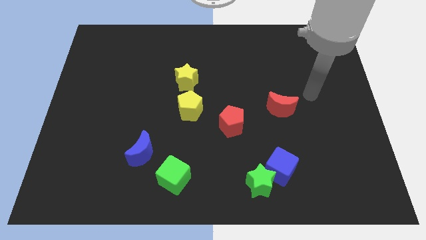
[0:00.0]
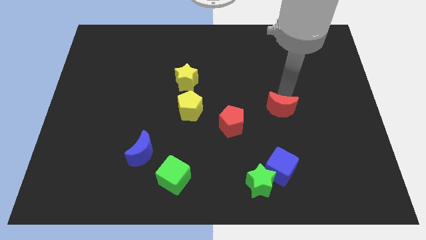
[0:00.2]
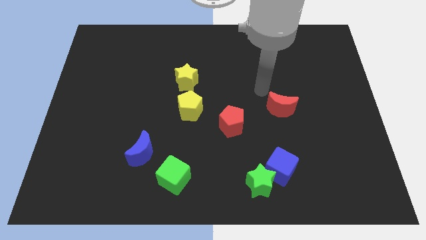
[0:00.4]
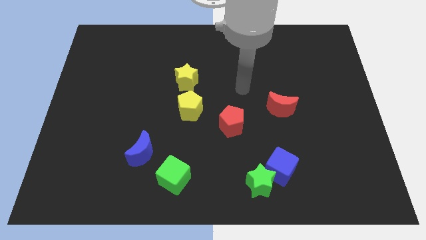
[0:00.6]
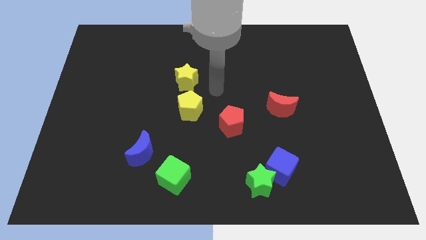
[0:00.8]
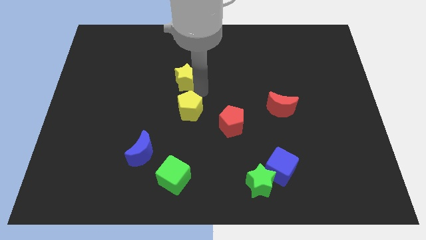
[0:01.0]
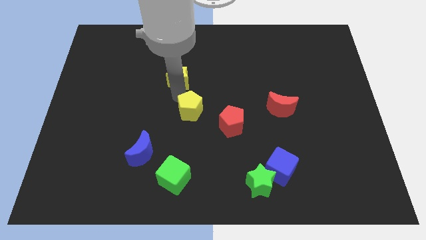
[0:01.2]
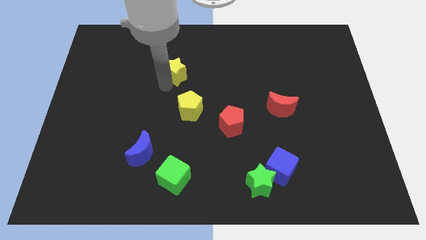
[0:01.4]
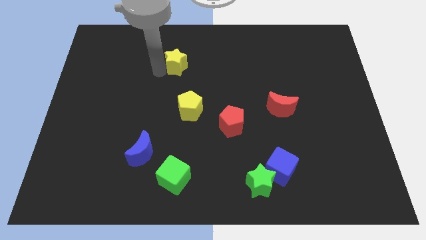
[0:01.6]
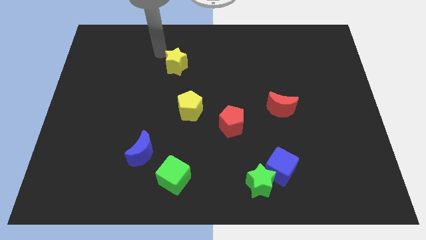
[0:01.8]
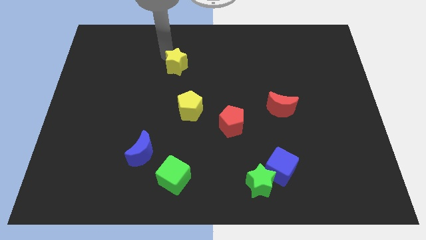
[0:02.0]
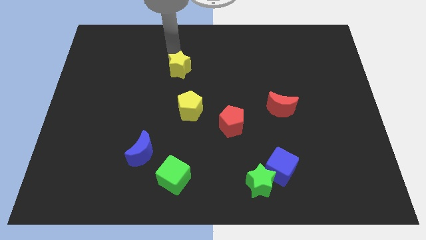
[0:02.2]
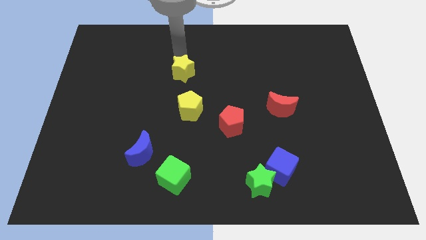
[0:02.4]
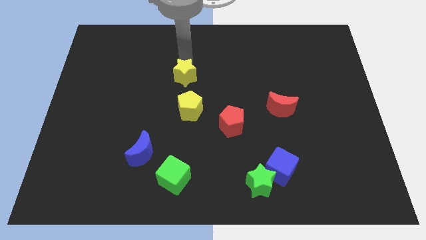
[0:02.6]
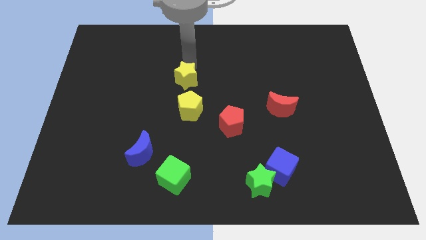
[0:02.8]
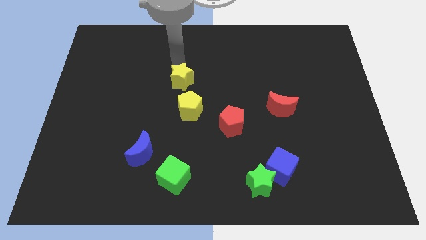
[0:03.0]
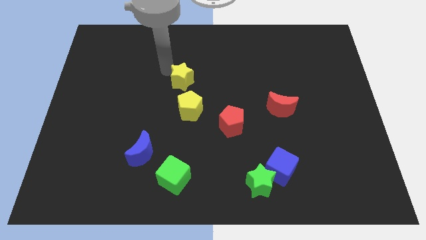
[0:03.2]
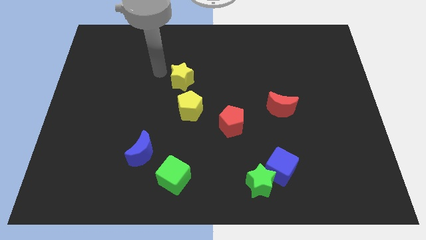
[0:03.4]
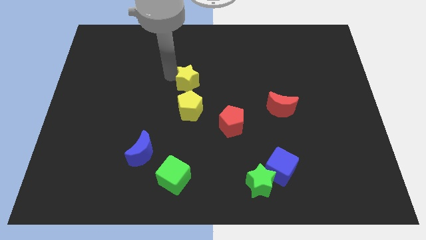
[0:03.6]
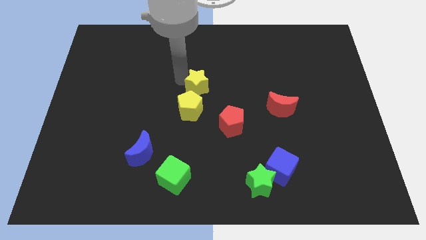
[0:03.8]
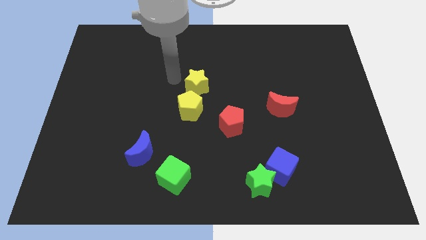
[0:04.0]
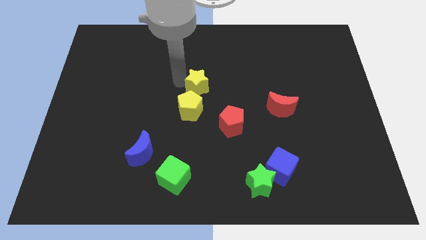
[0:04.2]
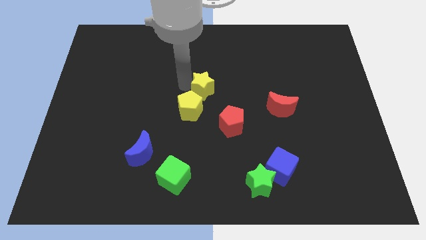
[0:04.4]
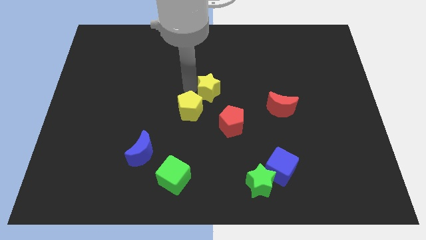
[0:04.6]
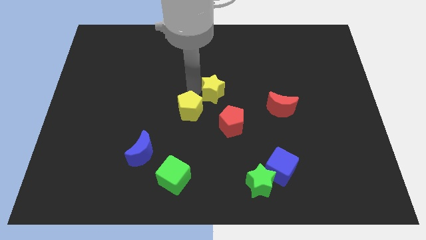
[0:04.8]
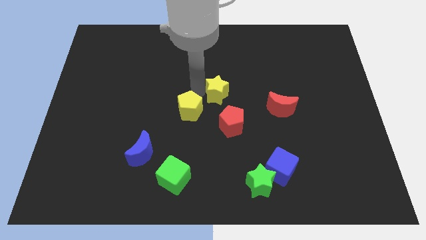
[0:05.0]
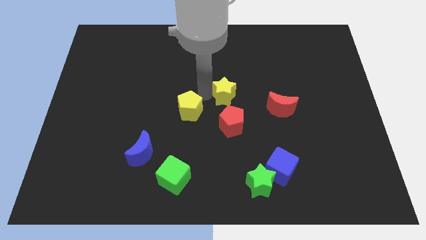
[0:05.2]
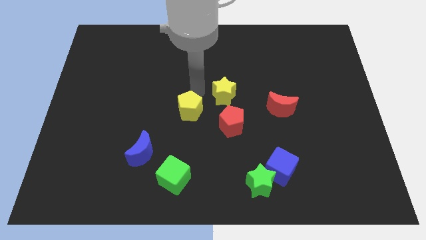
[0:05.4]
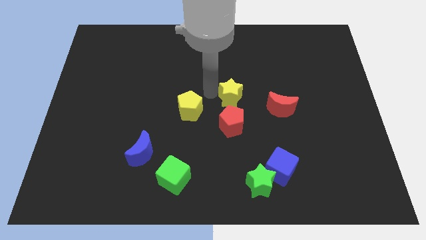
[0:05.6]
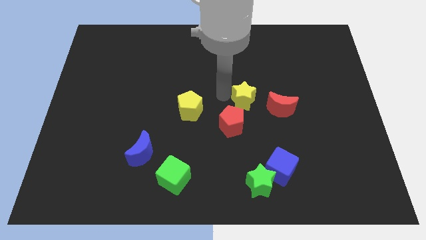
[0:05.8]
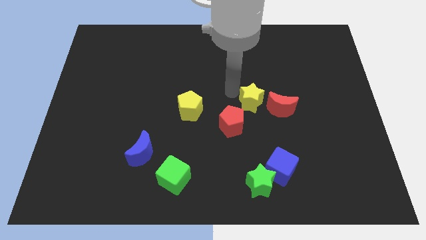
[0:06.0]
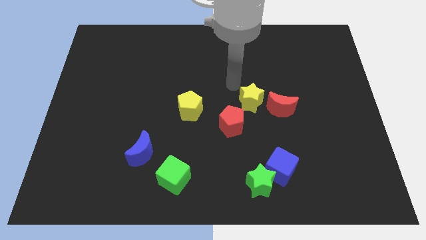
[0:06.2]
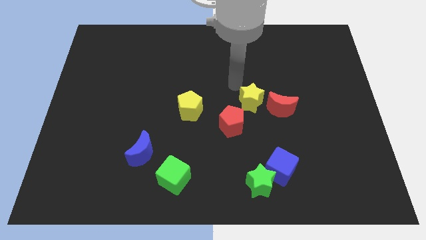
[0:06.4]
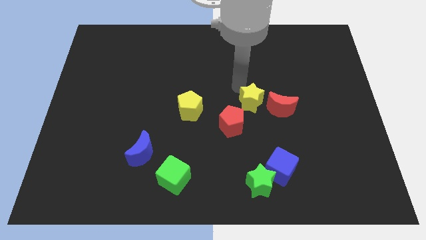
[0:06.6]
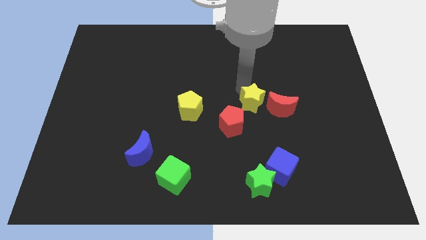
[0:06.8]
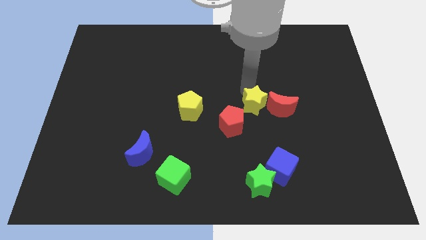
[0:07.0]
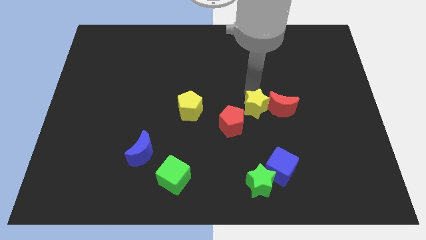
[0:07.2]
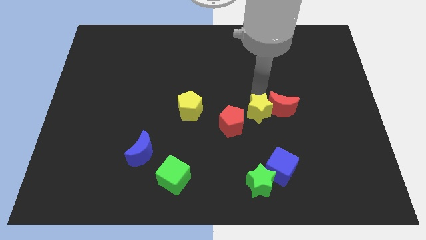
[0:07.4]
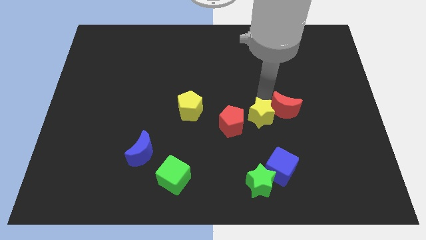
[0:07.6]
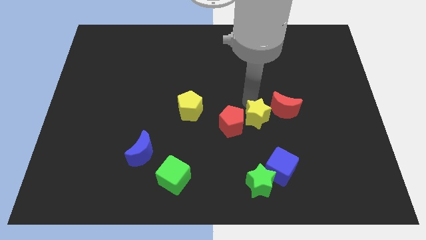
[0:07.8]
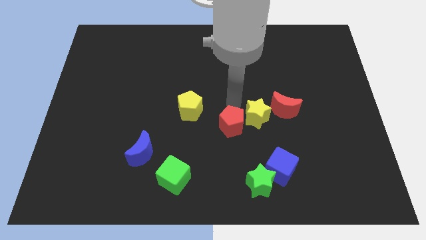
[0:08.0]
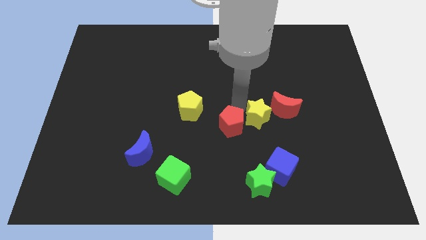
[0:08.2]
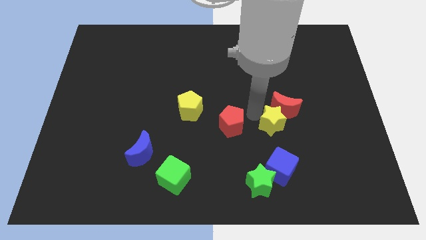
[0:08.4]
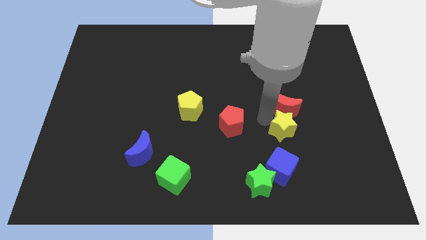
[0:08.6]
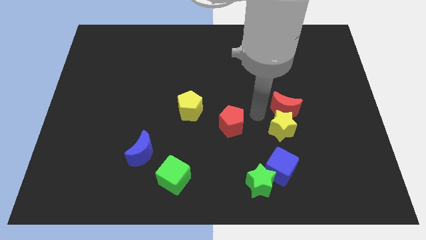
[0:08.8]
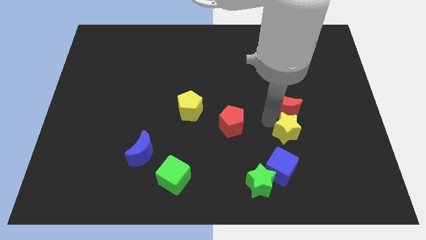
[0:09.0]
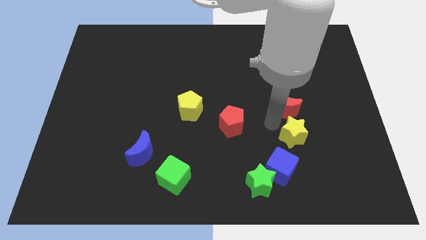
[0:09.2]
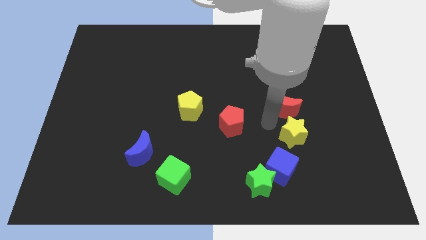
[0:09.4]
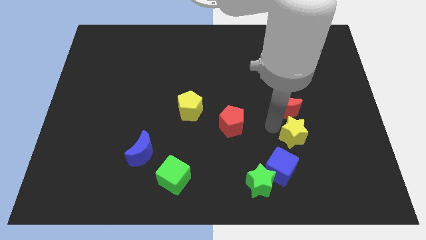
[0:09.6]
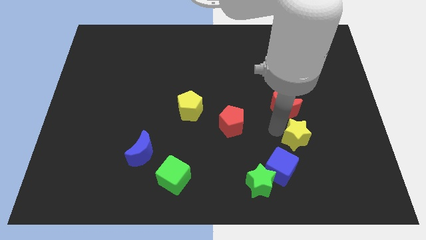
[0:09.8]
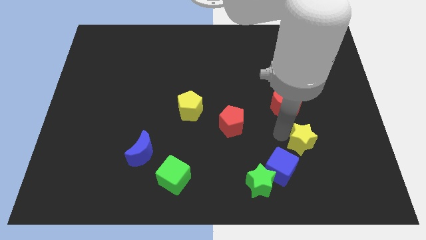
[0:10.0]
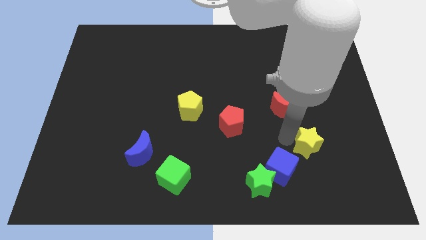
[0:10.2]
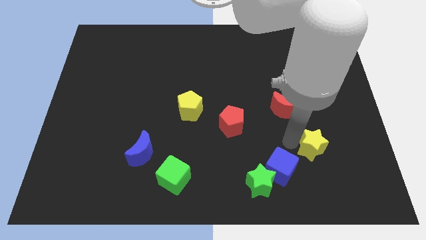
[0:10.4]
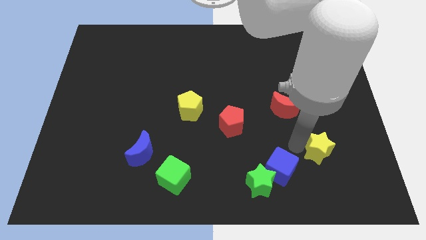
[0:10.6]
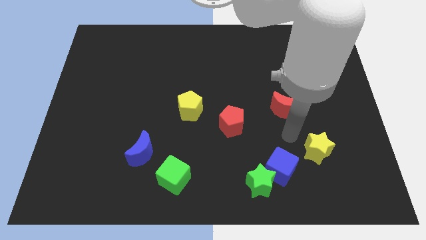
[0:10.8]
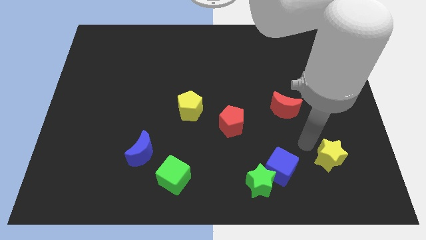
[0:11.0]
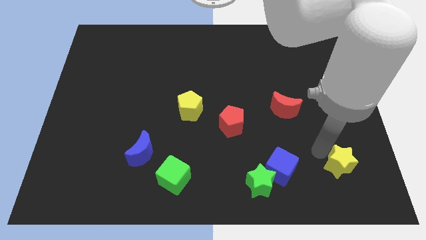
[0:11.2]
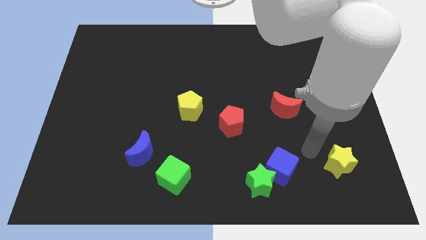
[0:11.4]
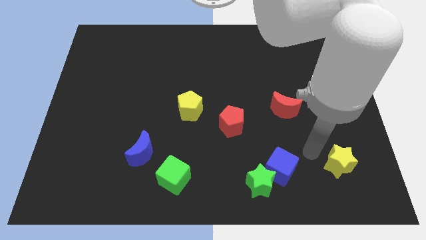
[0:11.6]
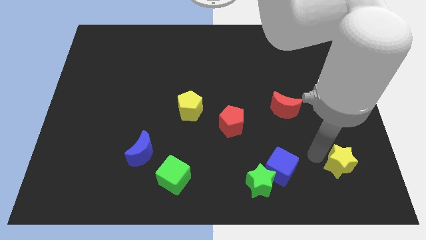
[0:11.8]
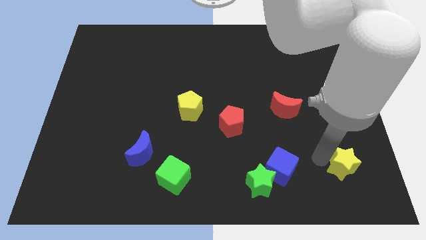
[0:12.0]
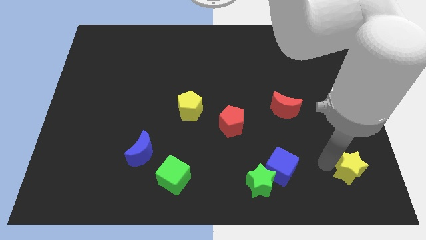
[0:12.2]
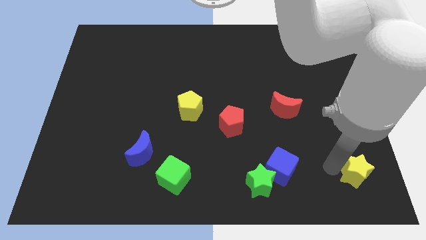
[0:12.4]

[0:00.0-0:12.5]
push the yellow star to the bottom right of the board

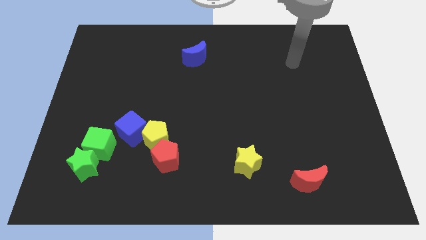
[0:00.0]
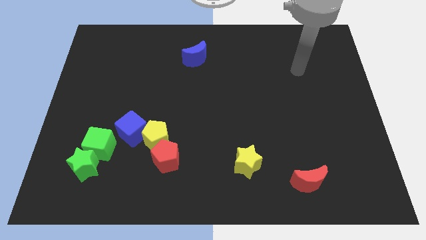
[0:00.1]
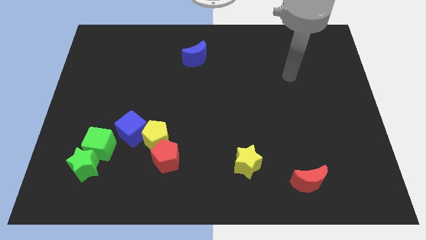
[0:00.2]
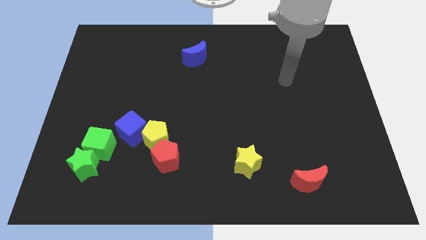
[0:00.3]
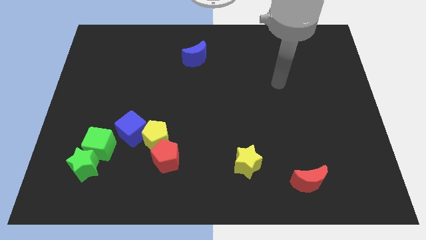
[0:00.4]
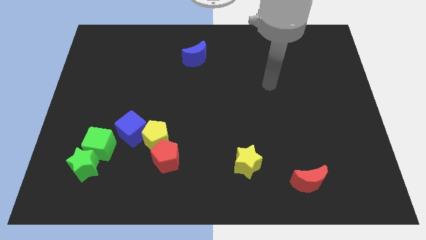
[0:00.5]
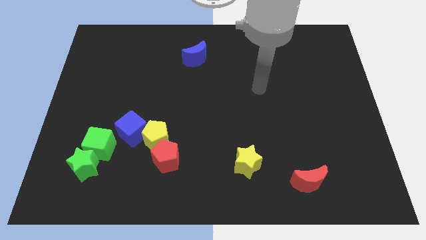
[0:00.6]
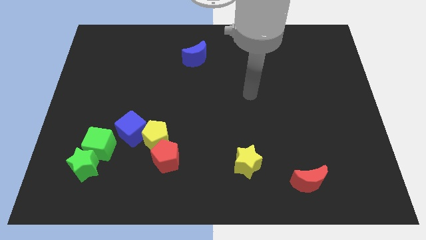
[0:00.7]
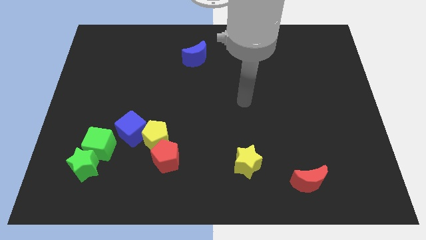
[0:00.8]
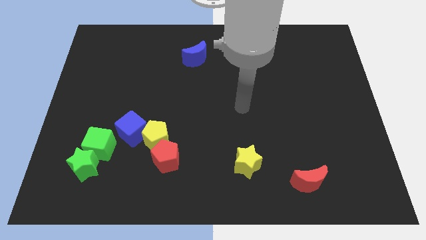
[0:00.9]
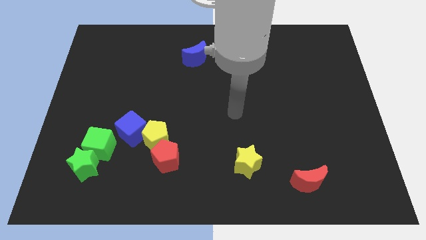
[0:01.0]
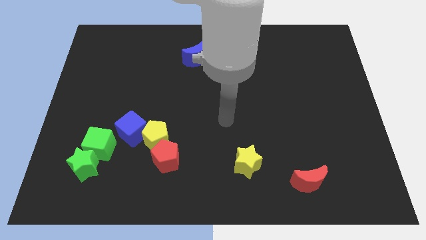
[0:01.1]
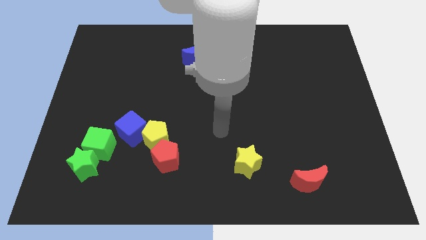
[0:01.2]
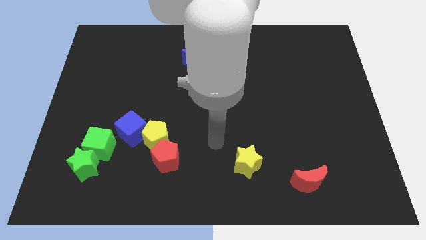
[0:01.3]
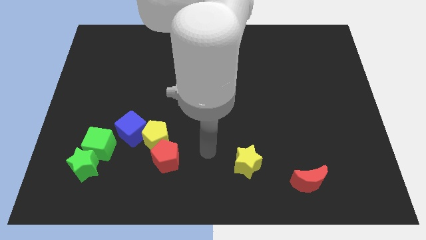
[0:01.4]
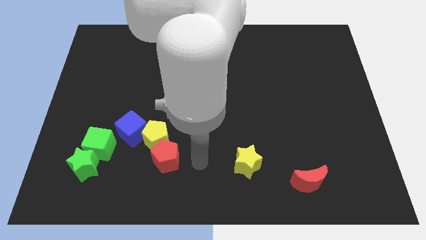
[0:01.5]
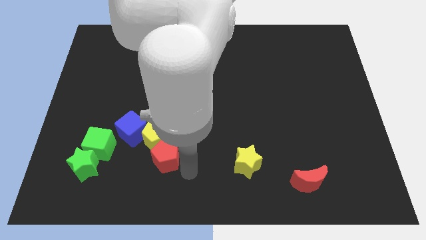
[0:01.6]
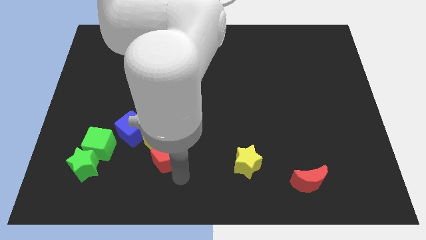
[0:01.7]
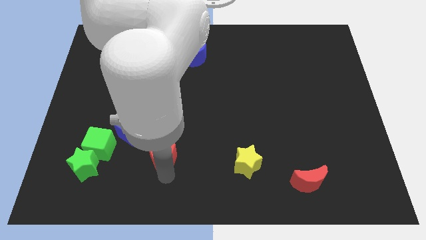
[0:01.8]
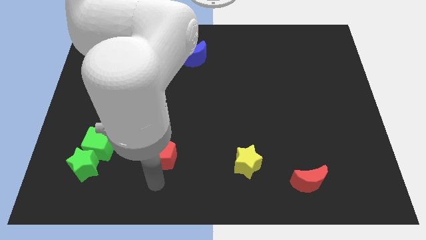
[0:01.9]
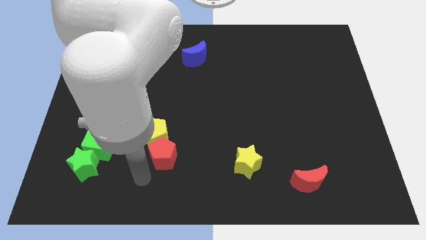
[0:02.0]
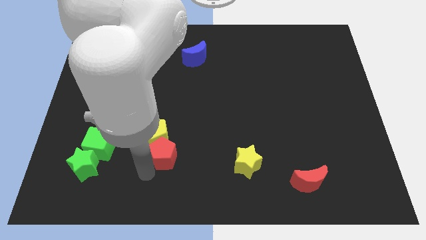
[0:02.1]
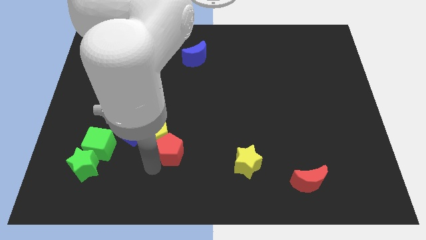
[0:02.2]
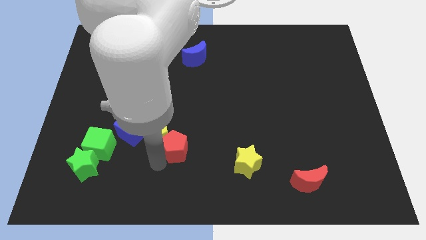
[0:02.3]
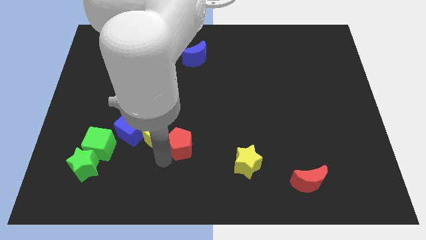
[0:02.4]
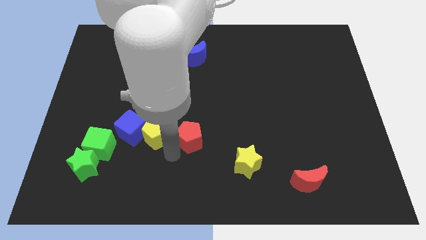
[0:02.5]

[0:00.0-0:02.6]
slide the red pentagon to the middle
